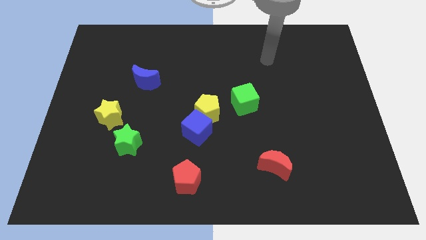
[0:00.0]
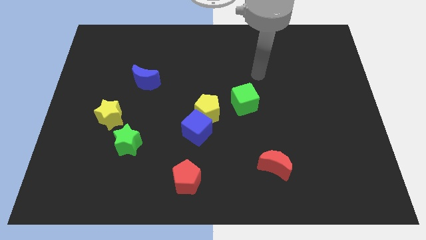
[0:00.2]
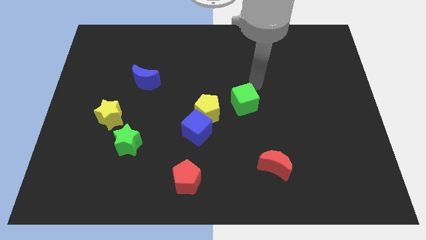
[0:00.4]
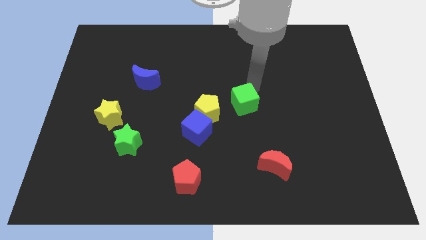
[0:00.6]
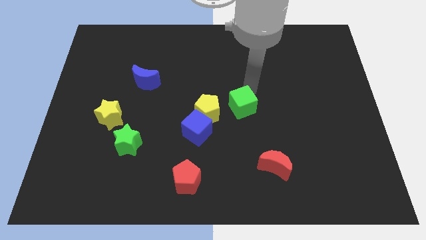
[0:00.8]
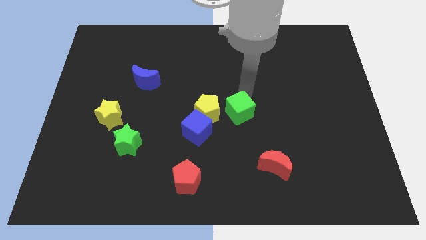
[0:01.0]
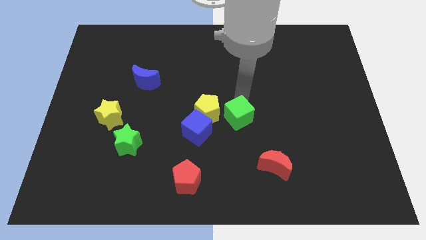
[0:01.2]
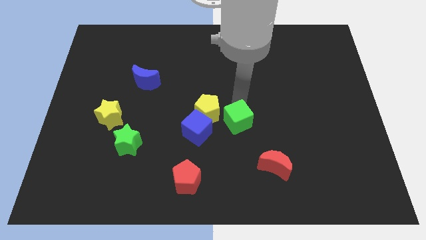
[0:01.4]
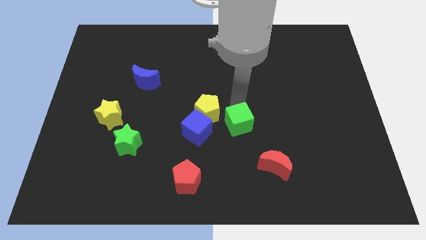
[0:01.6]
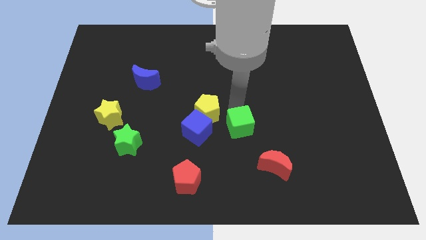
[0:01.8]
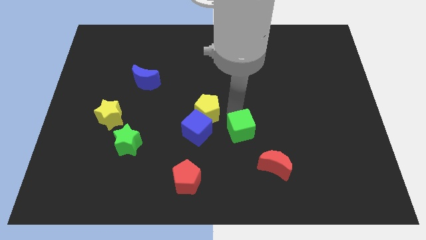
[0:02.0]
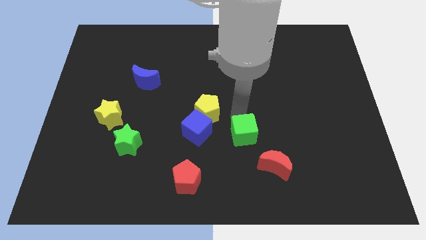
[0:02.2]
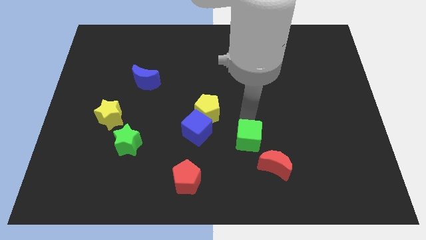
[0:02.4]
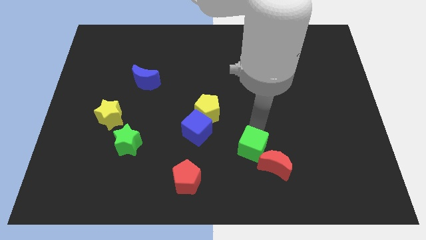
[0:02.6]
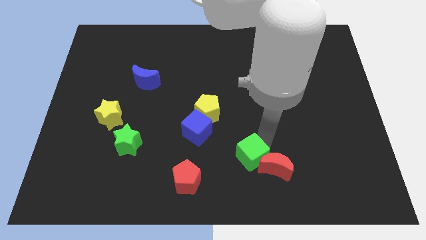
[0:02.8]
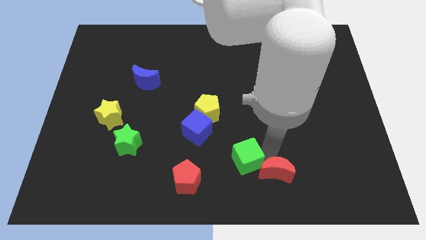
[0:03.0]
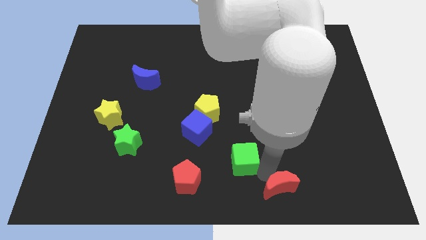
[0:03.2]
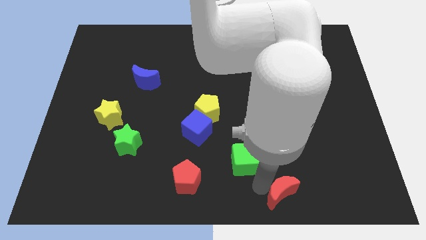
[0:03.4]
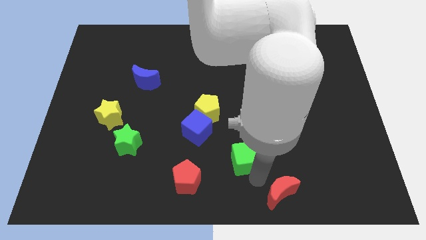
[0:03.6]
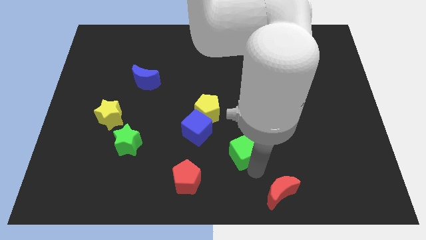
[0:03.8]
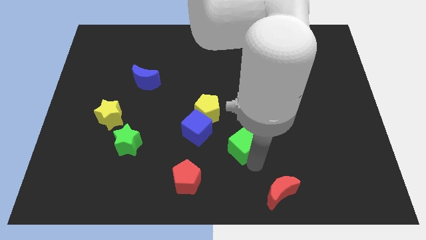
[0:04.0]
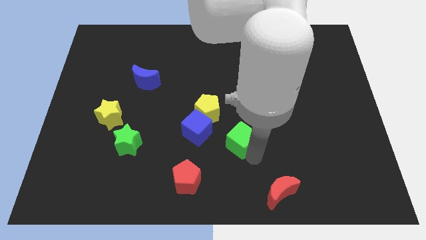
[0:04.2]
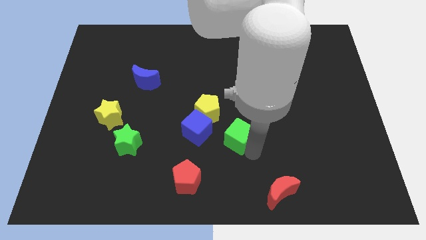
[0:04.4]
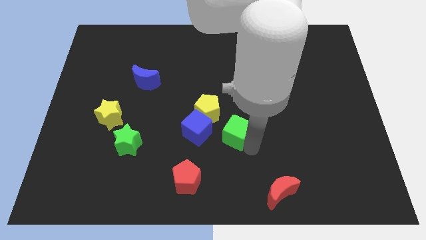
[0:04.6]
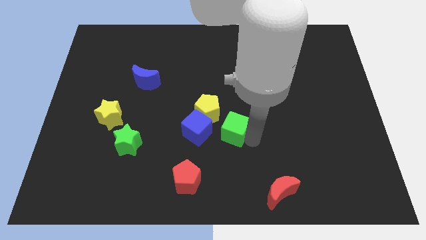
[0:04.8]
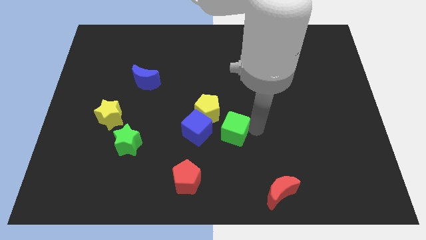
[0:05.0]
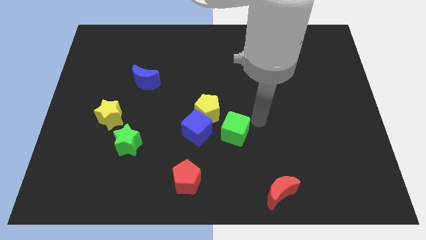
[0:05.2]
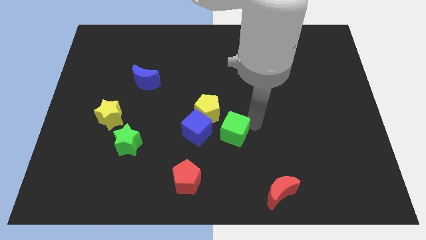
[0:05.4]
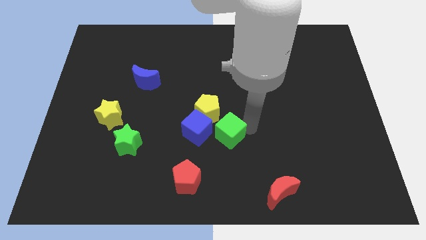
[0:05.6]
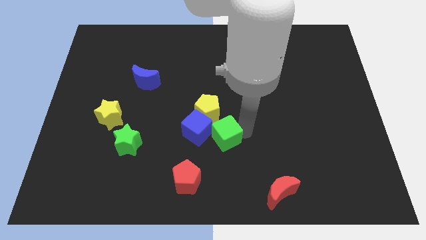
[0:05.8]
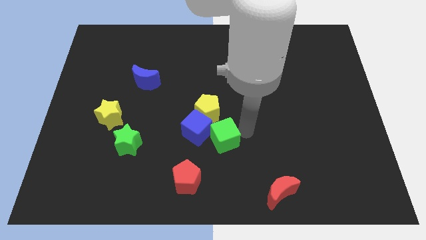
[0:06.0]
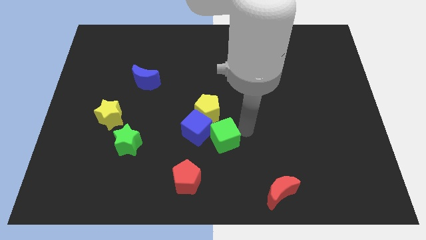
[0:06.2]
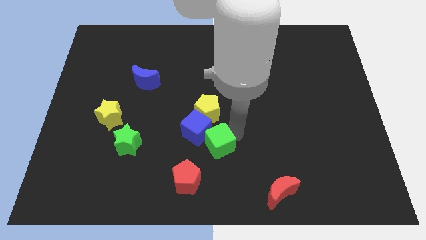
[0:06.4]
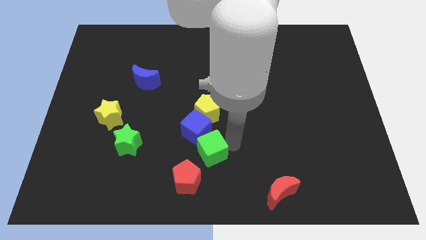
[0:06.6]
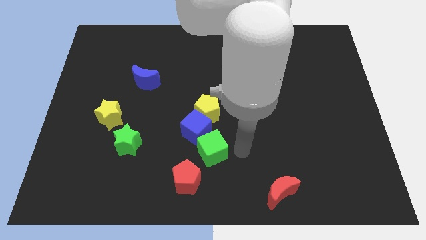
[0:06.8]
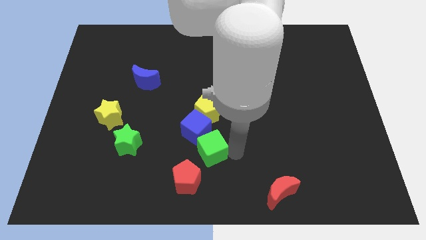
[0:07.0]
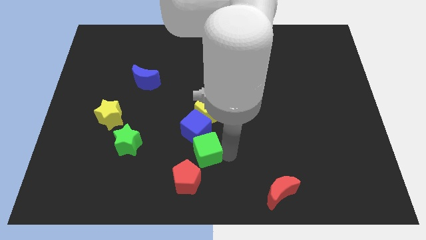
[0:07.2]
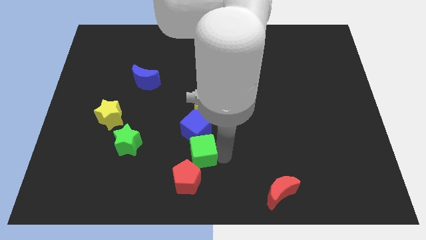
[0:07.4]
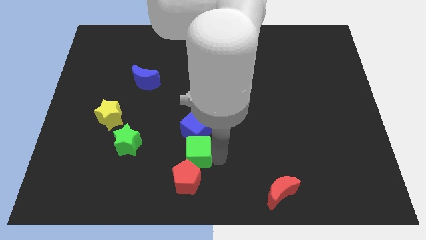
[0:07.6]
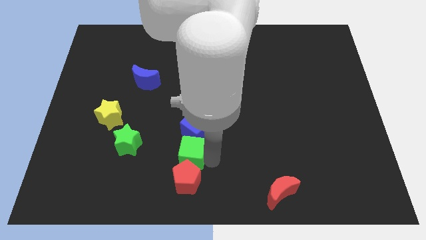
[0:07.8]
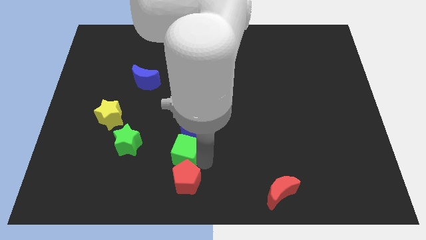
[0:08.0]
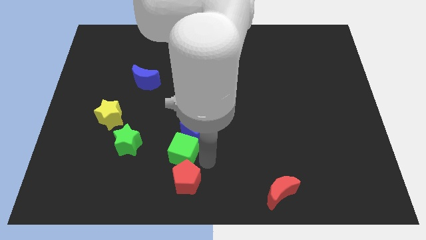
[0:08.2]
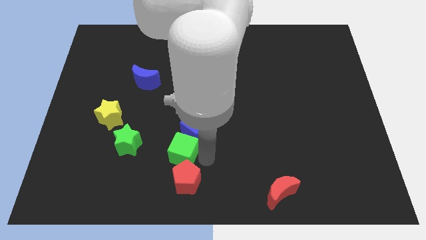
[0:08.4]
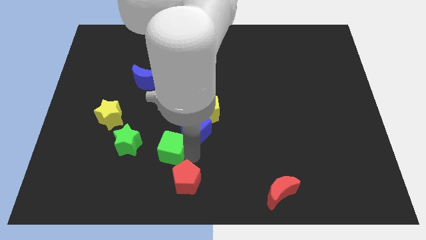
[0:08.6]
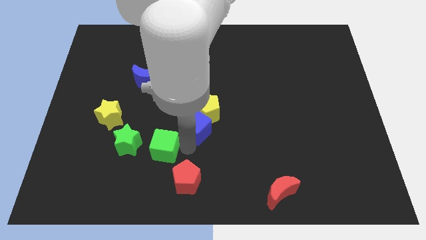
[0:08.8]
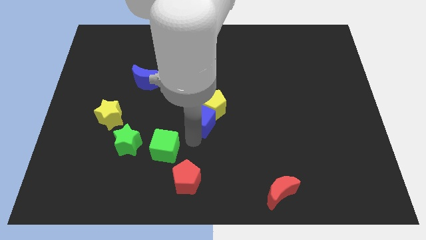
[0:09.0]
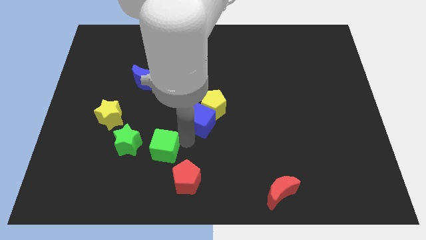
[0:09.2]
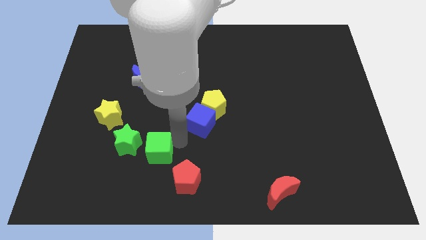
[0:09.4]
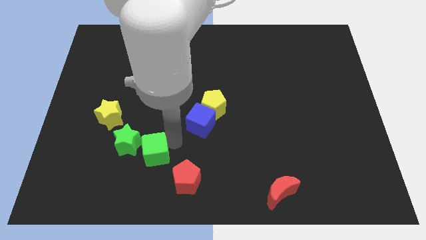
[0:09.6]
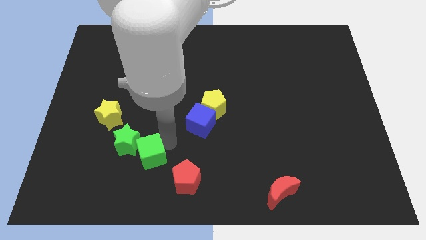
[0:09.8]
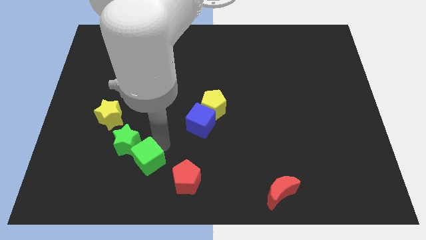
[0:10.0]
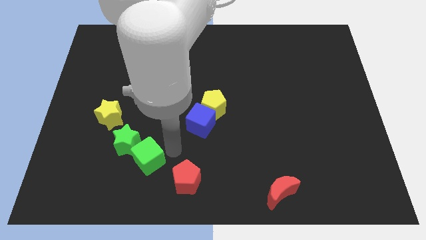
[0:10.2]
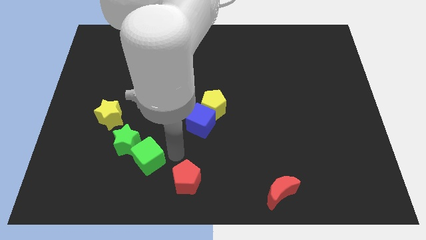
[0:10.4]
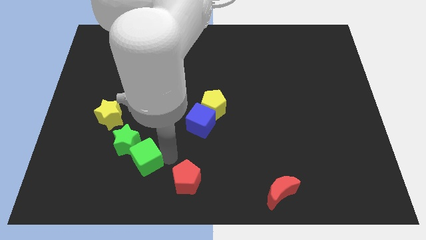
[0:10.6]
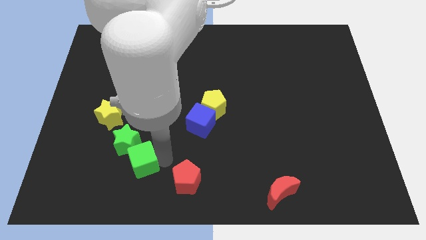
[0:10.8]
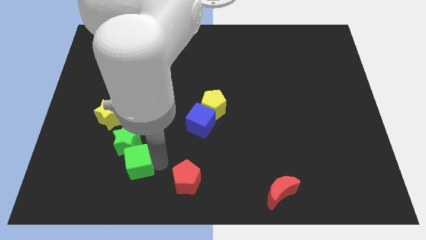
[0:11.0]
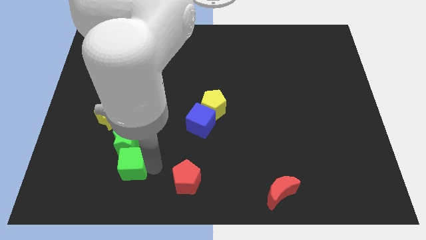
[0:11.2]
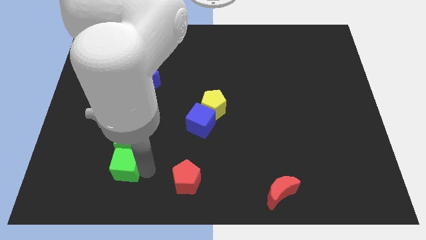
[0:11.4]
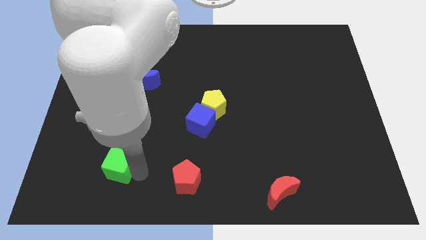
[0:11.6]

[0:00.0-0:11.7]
put the green cube to the bottom of the yellow star

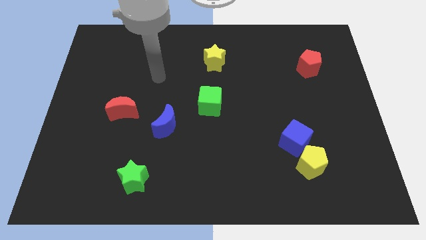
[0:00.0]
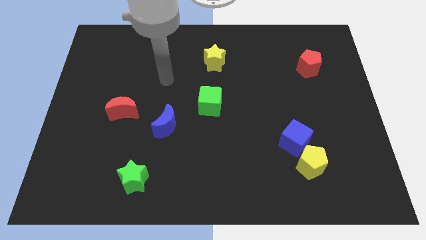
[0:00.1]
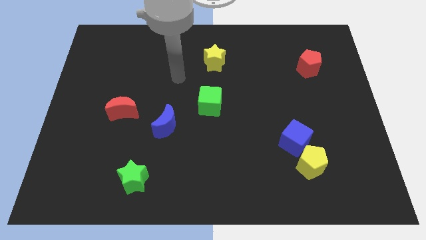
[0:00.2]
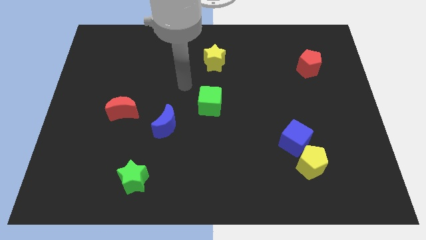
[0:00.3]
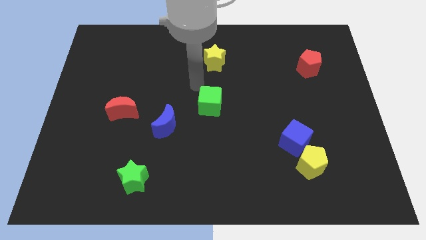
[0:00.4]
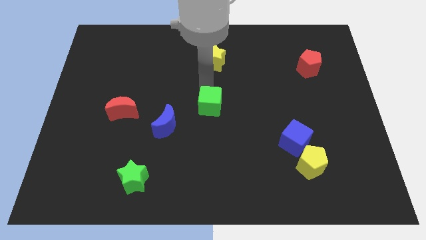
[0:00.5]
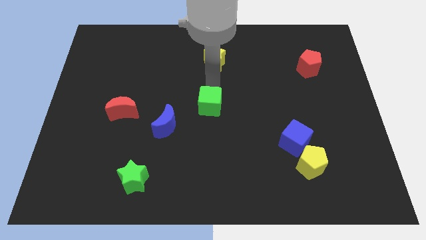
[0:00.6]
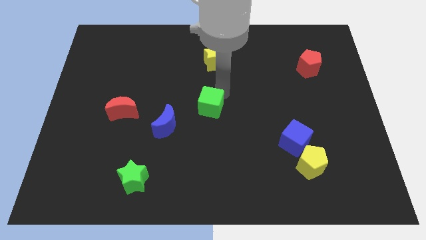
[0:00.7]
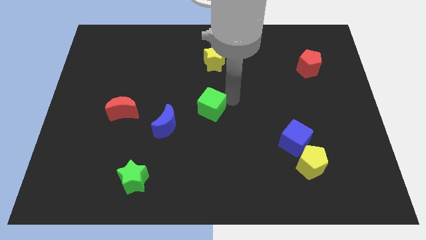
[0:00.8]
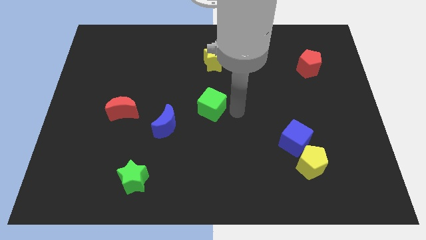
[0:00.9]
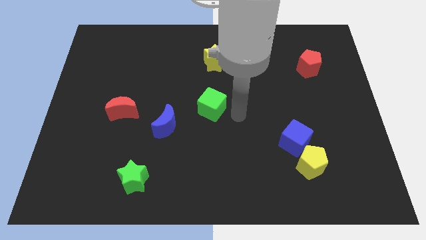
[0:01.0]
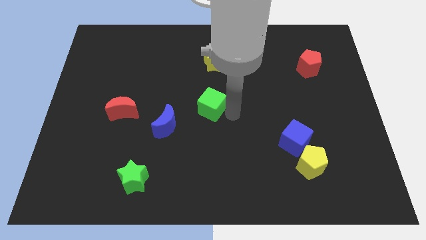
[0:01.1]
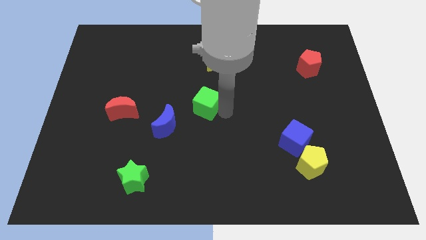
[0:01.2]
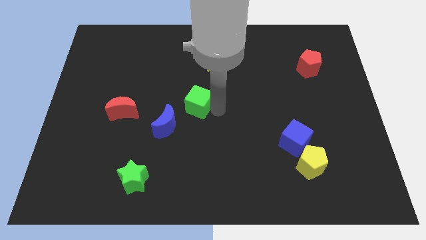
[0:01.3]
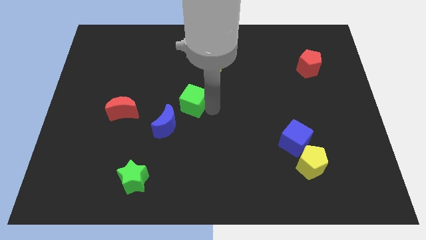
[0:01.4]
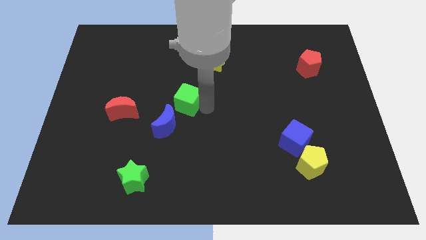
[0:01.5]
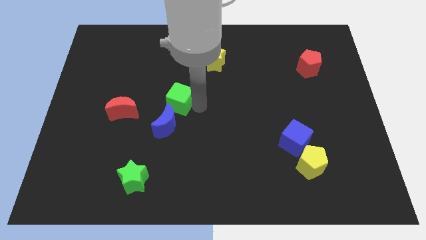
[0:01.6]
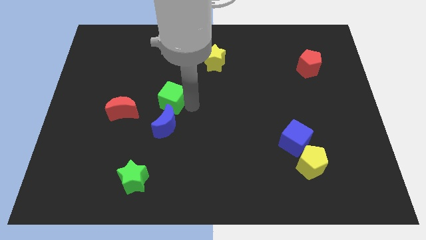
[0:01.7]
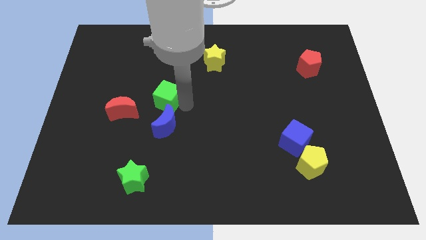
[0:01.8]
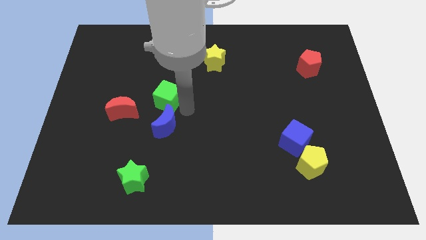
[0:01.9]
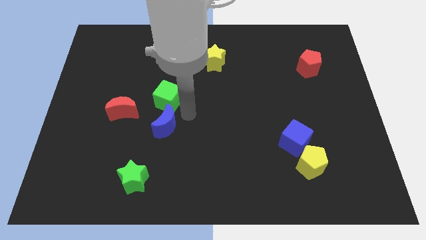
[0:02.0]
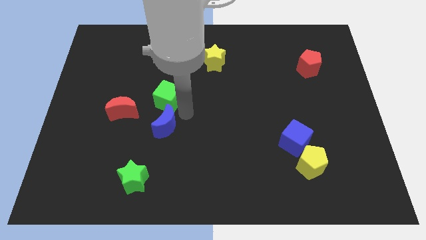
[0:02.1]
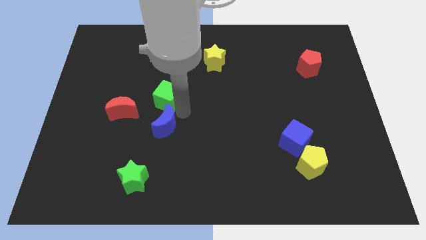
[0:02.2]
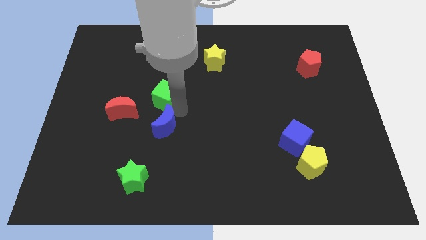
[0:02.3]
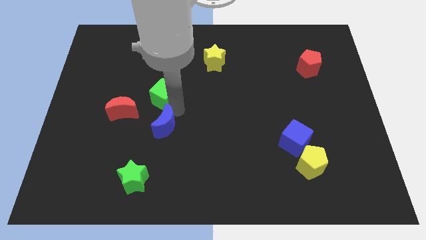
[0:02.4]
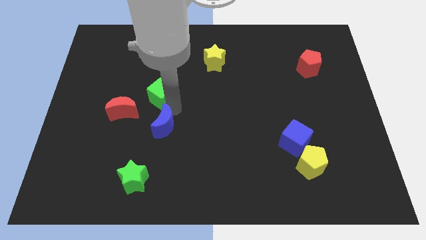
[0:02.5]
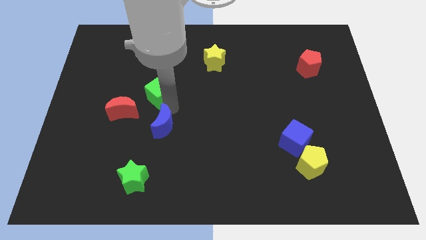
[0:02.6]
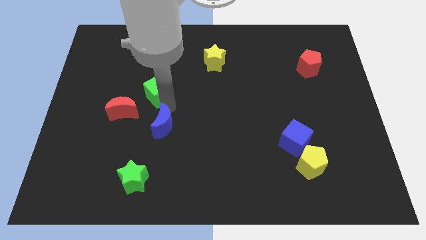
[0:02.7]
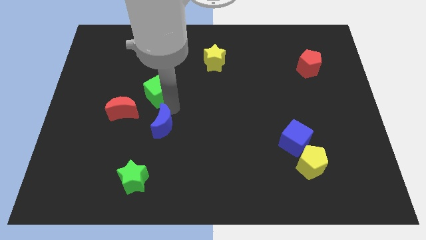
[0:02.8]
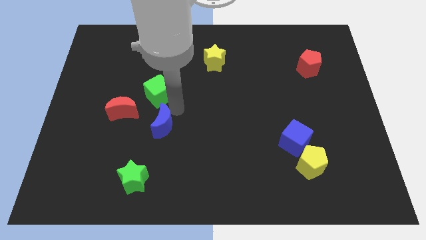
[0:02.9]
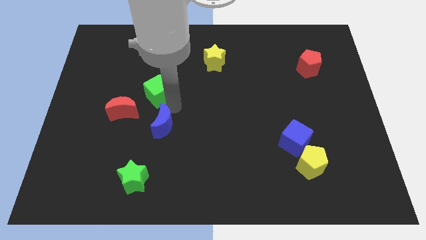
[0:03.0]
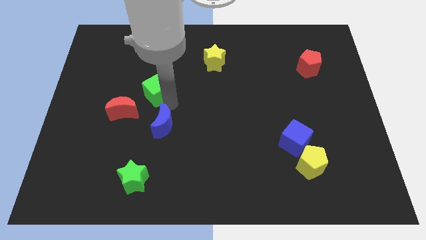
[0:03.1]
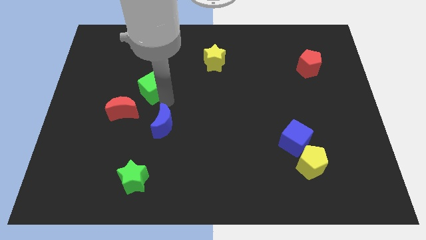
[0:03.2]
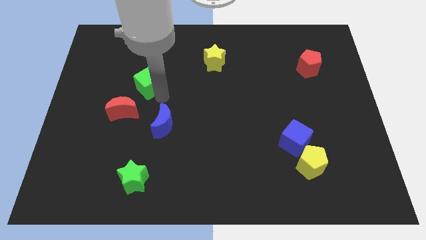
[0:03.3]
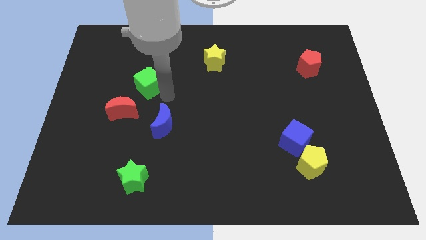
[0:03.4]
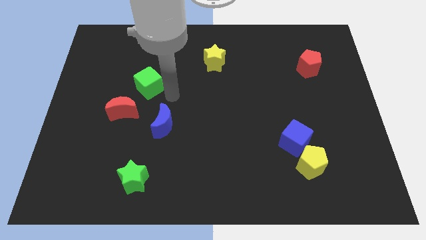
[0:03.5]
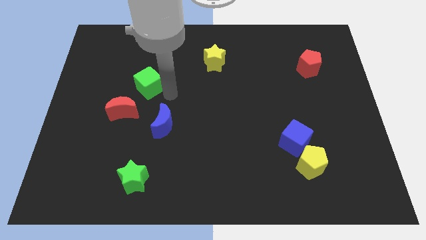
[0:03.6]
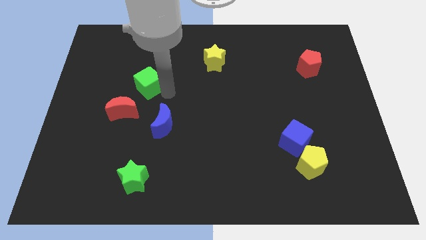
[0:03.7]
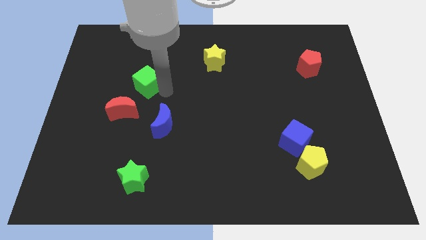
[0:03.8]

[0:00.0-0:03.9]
put the green cube to the top side of the red moon
